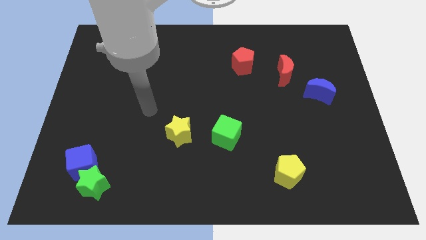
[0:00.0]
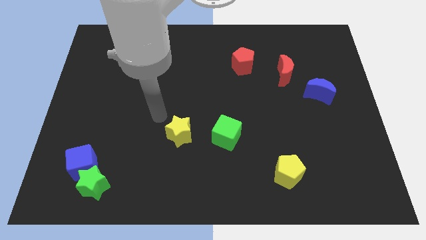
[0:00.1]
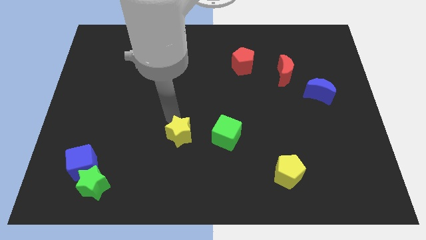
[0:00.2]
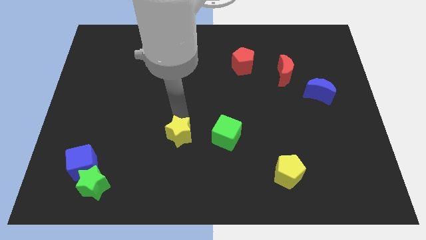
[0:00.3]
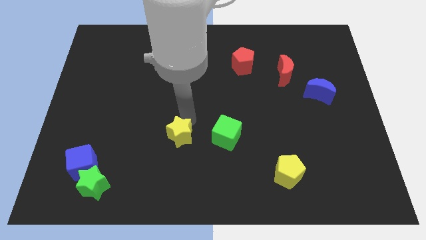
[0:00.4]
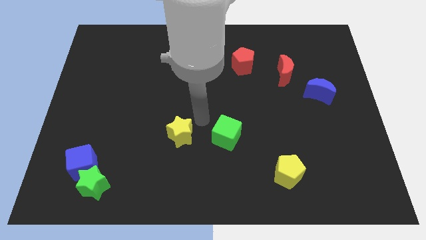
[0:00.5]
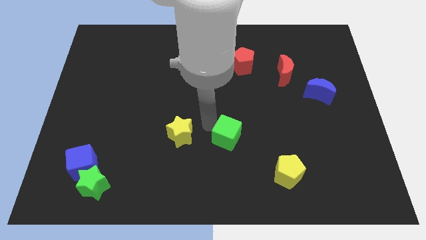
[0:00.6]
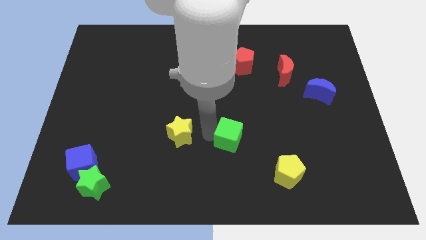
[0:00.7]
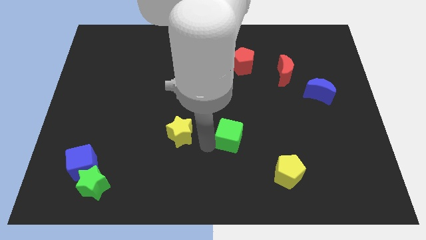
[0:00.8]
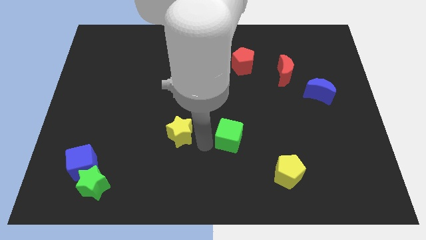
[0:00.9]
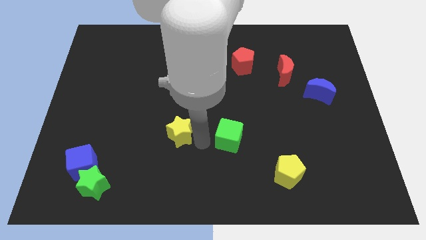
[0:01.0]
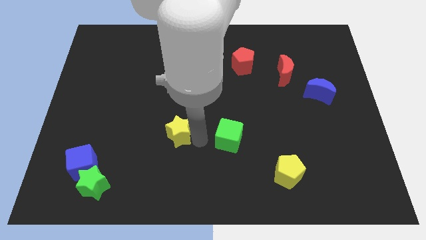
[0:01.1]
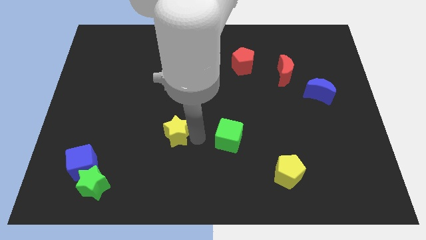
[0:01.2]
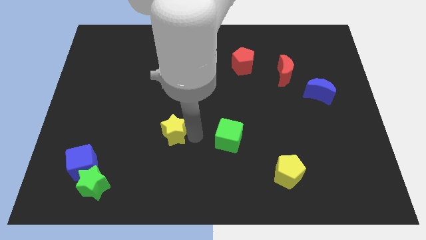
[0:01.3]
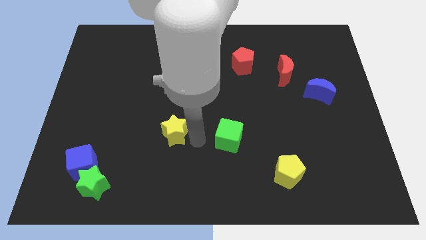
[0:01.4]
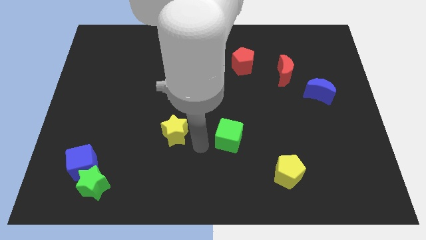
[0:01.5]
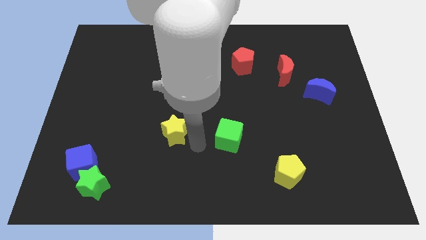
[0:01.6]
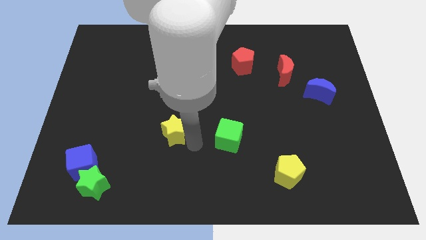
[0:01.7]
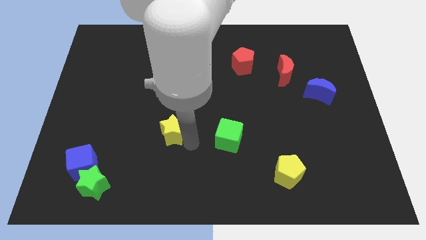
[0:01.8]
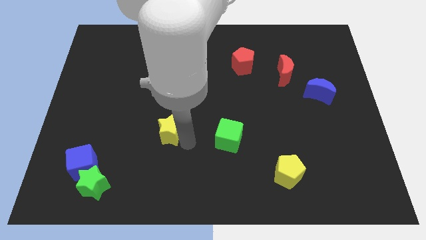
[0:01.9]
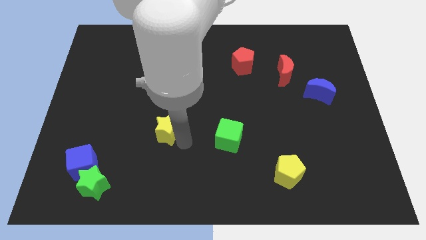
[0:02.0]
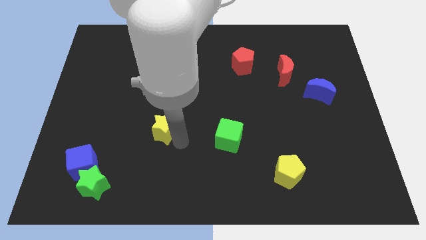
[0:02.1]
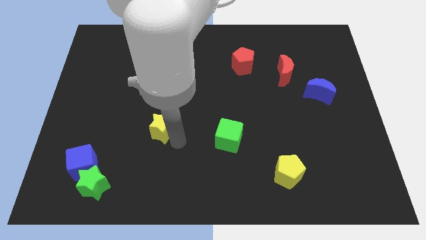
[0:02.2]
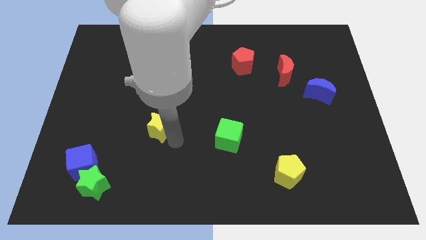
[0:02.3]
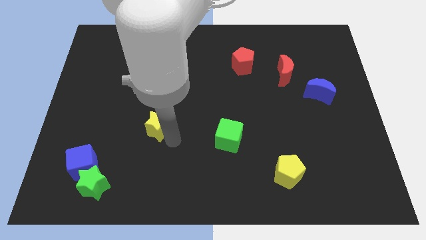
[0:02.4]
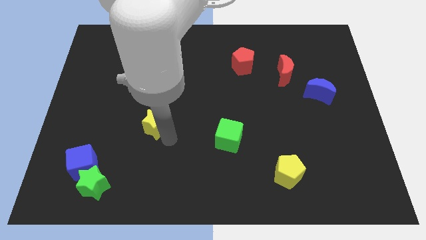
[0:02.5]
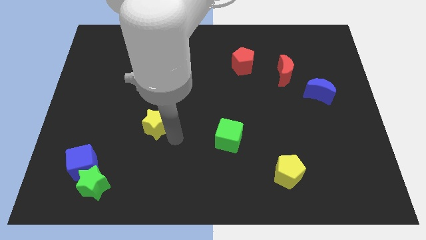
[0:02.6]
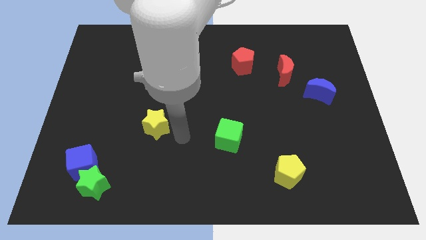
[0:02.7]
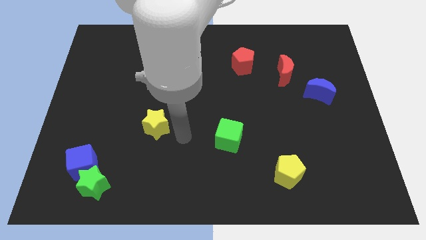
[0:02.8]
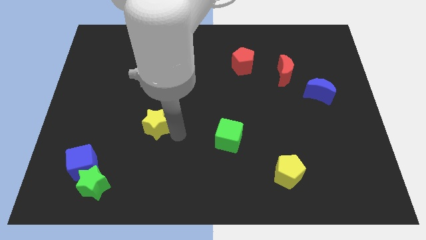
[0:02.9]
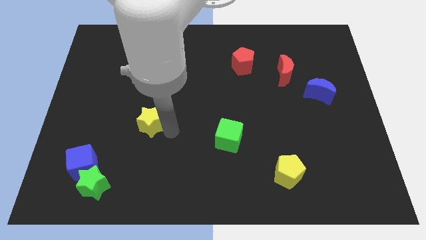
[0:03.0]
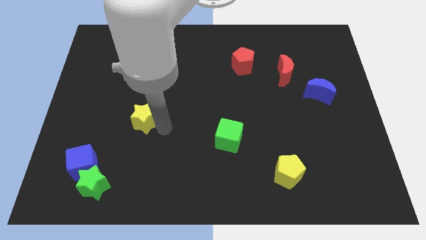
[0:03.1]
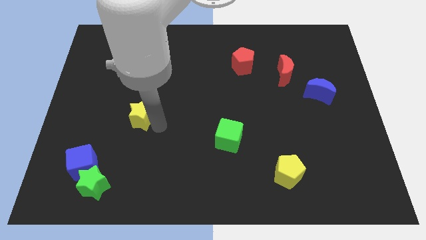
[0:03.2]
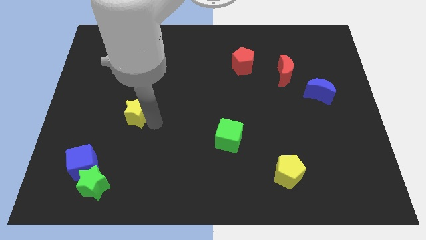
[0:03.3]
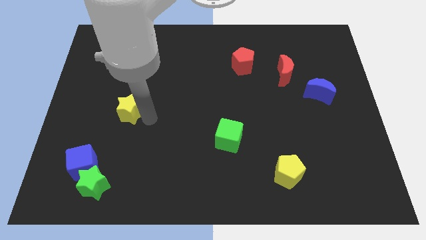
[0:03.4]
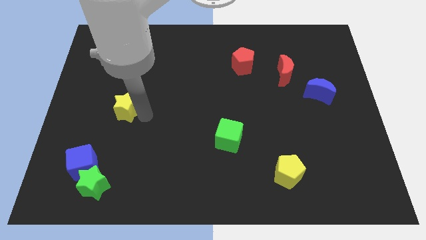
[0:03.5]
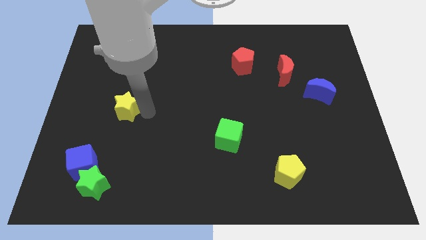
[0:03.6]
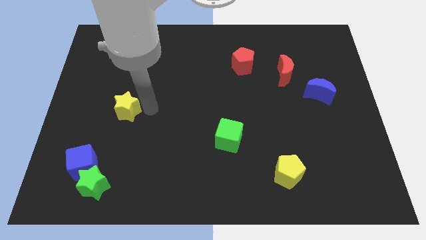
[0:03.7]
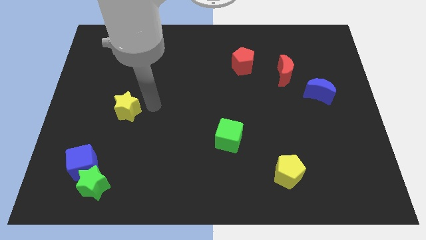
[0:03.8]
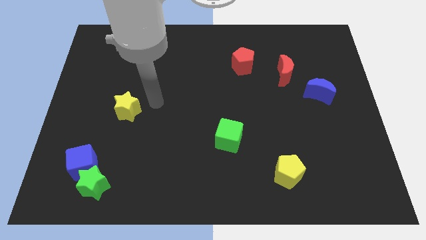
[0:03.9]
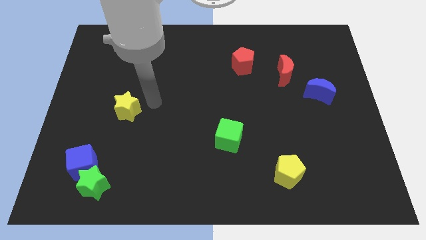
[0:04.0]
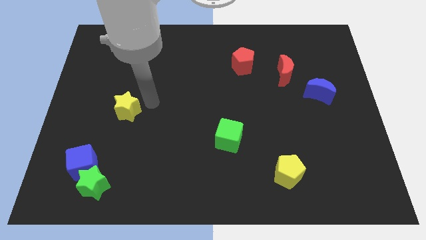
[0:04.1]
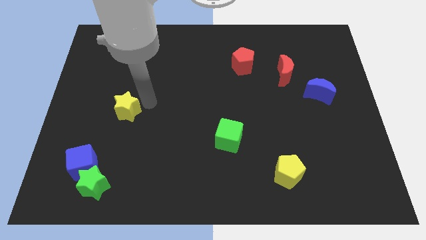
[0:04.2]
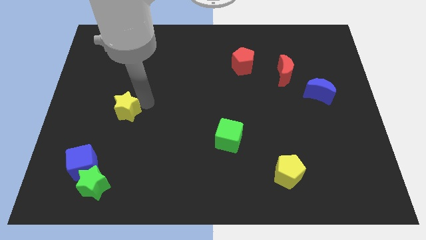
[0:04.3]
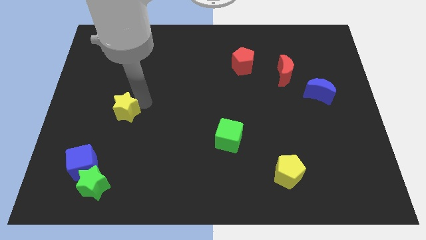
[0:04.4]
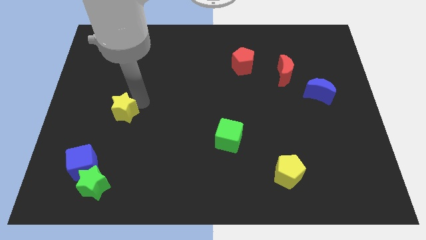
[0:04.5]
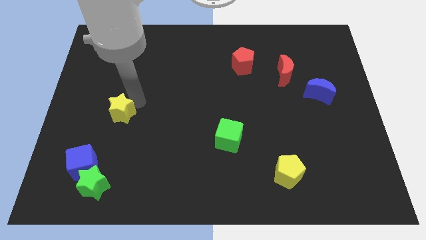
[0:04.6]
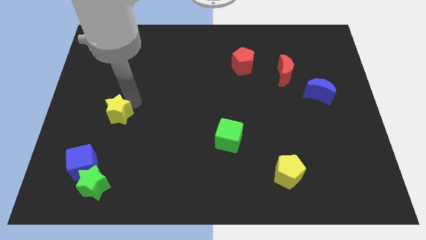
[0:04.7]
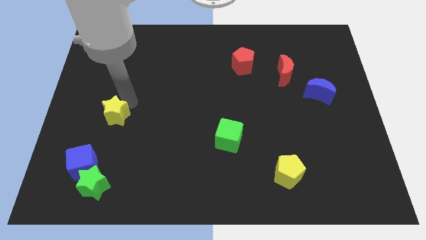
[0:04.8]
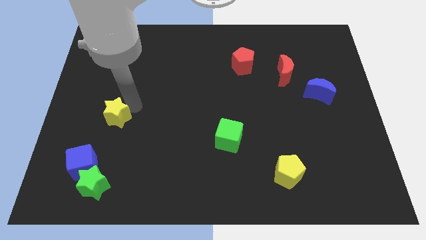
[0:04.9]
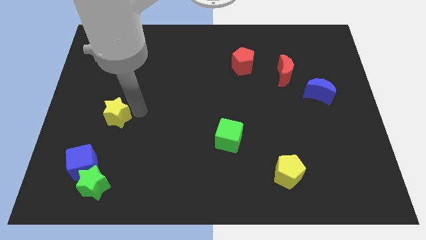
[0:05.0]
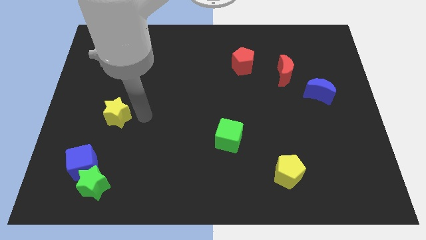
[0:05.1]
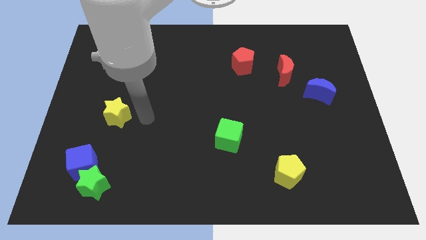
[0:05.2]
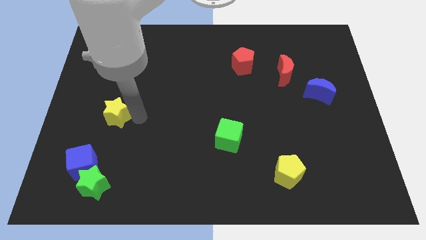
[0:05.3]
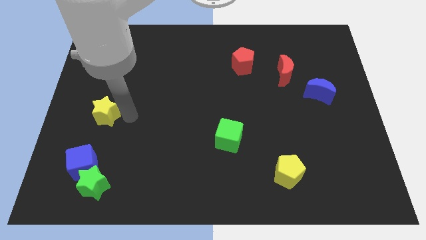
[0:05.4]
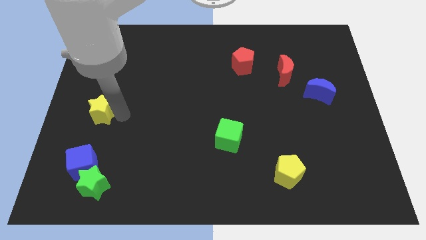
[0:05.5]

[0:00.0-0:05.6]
slide the yellow star to the left side

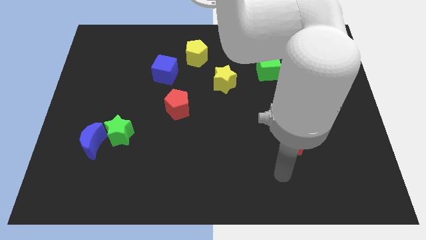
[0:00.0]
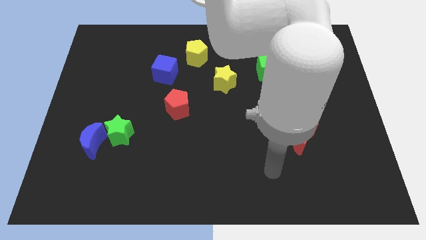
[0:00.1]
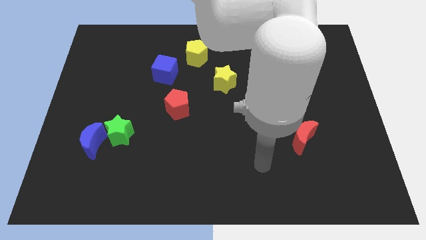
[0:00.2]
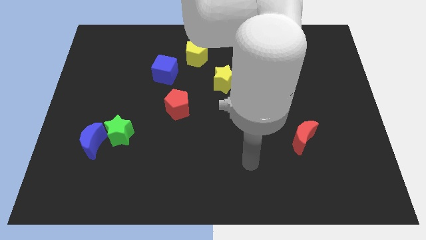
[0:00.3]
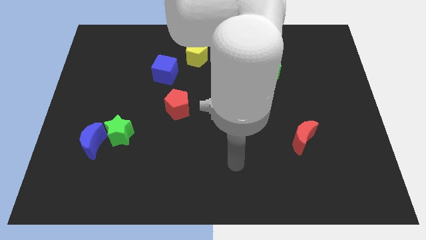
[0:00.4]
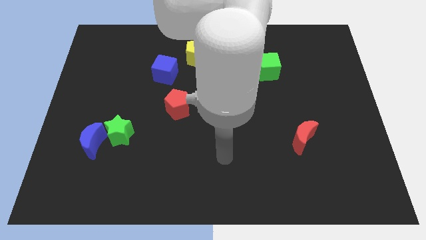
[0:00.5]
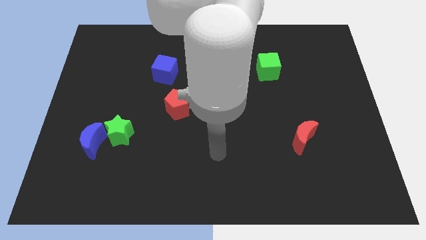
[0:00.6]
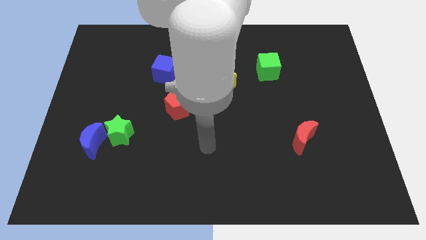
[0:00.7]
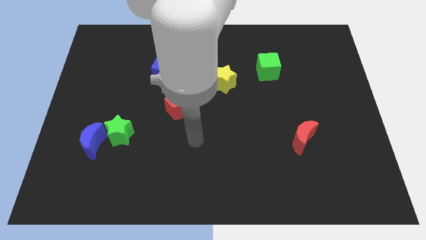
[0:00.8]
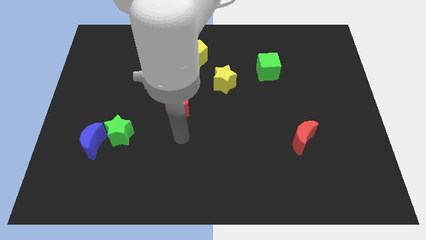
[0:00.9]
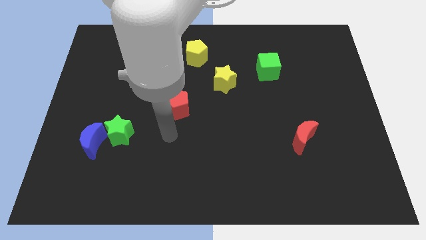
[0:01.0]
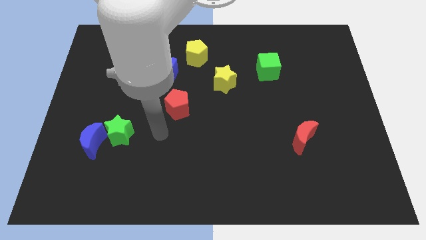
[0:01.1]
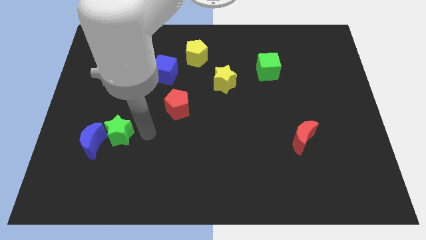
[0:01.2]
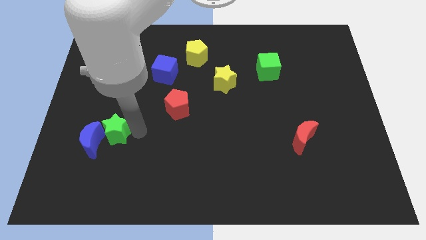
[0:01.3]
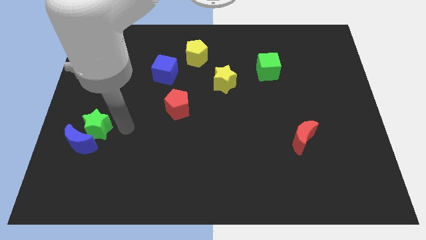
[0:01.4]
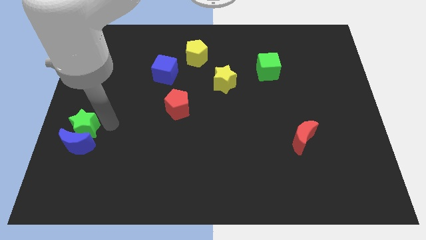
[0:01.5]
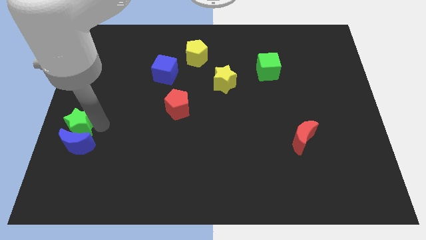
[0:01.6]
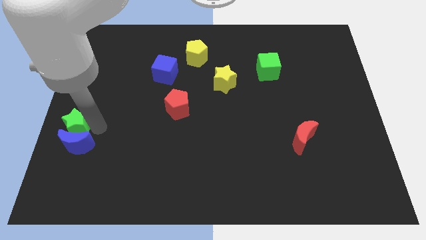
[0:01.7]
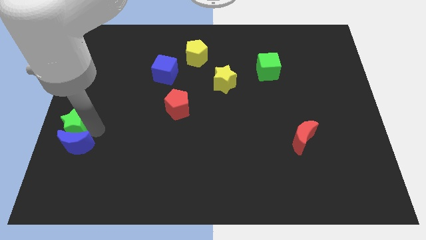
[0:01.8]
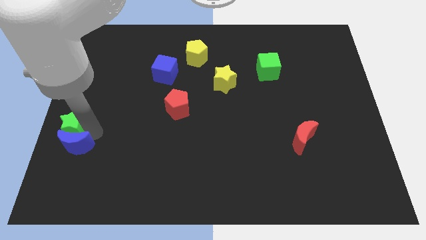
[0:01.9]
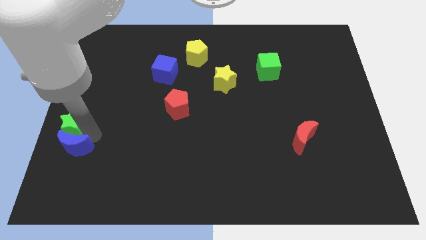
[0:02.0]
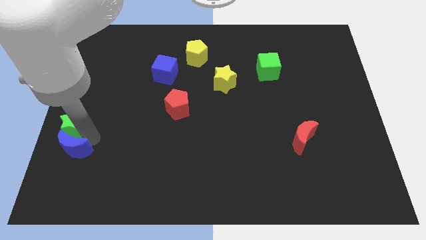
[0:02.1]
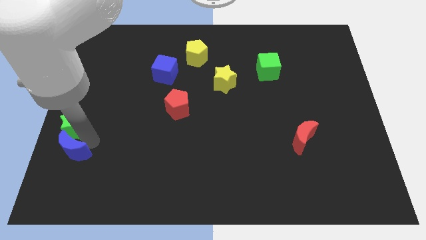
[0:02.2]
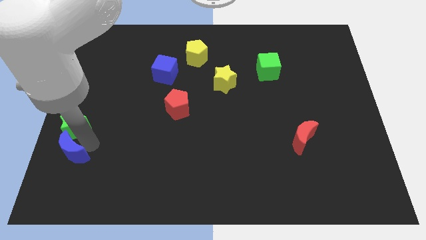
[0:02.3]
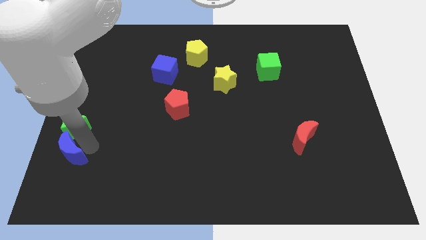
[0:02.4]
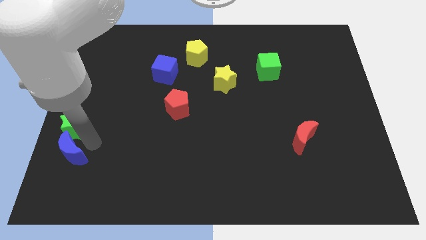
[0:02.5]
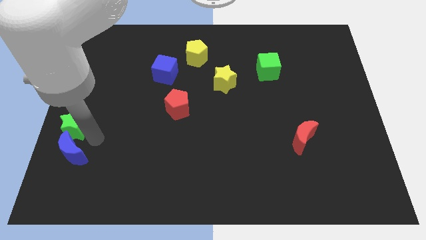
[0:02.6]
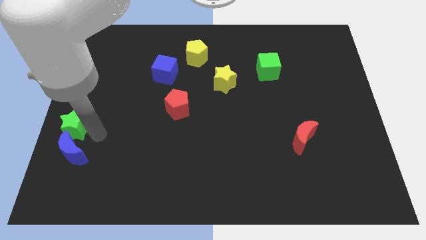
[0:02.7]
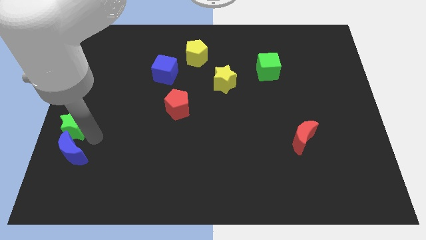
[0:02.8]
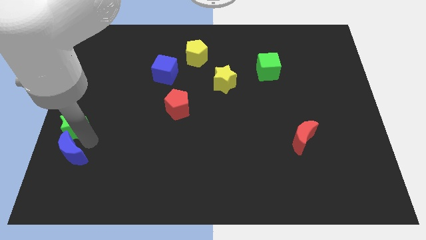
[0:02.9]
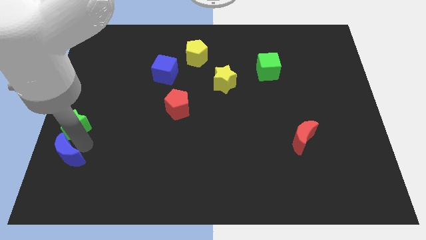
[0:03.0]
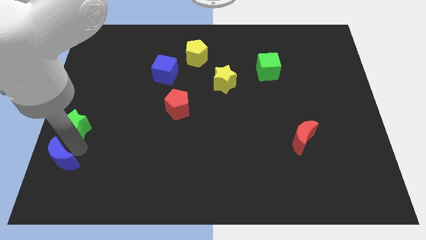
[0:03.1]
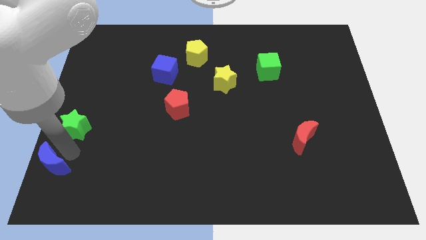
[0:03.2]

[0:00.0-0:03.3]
push the blue moon to the bottom left of the board
